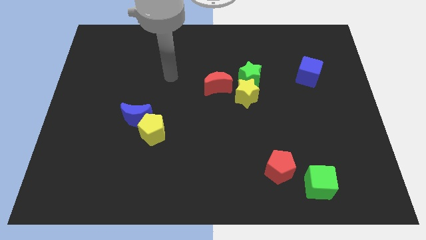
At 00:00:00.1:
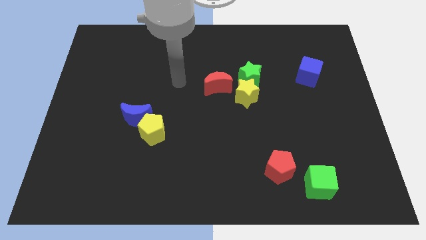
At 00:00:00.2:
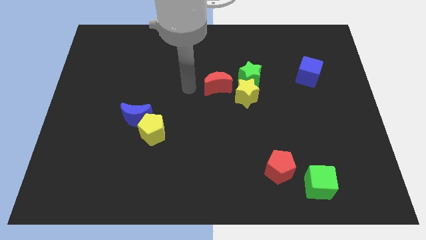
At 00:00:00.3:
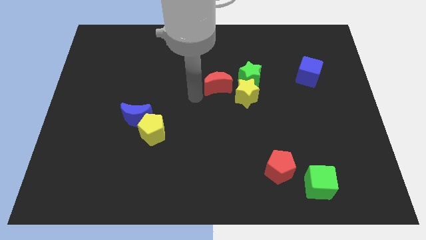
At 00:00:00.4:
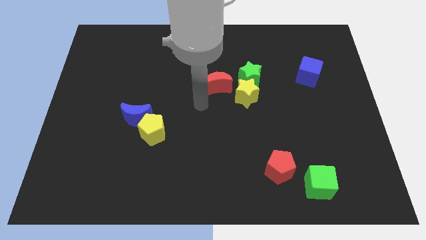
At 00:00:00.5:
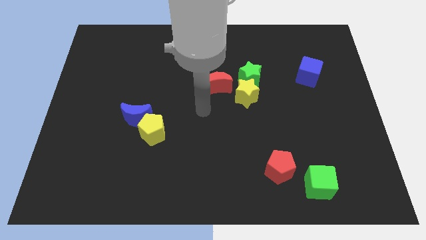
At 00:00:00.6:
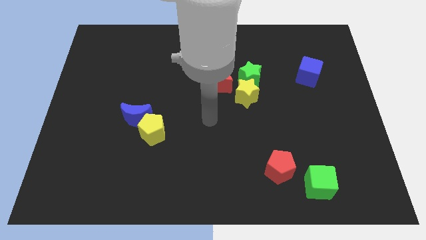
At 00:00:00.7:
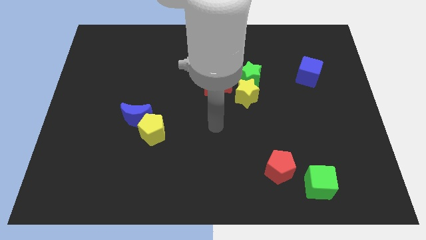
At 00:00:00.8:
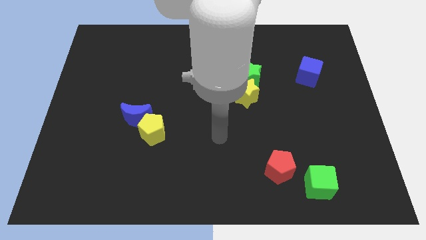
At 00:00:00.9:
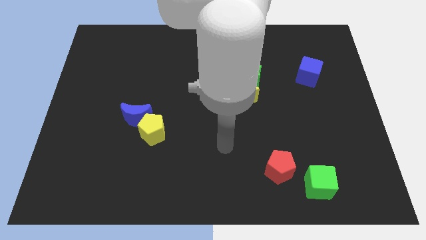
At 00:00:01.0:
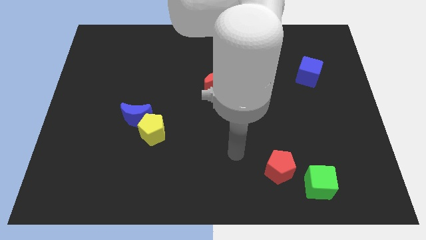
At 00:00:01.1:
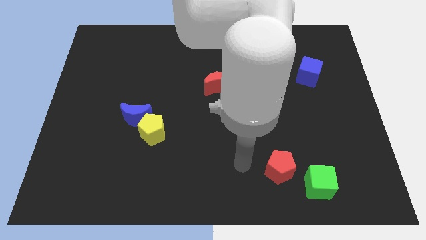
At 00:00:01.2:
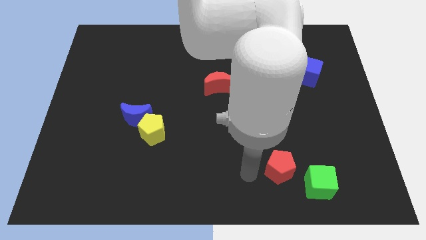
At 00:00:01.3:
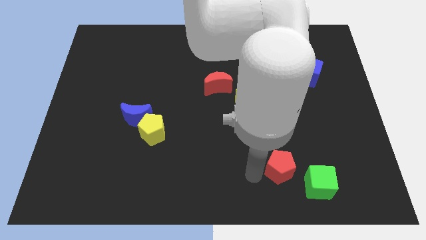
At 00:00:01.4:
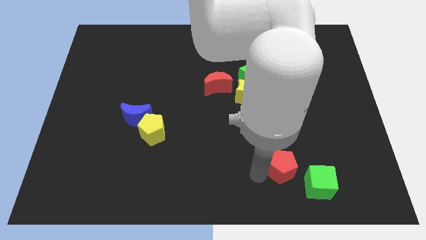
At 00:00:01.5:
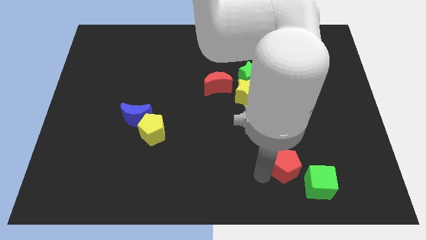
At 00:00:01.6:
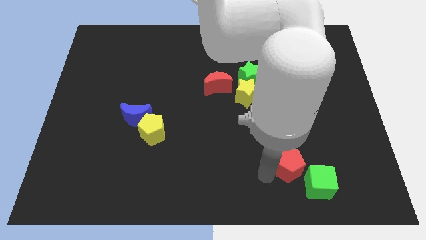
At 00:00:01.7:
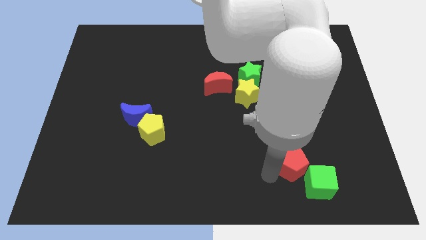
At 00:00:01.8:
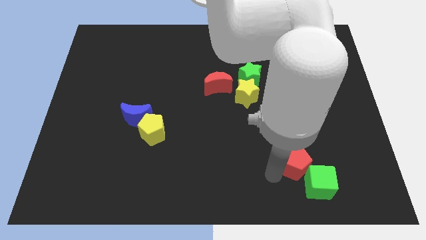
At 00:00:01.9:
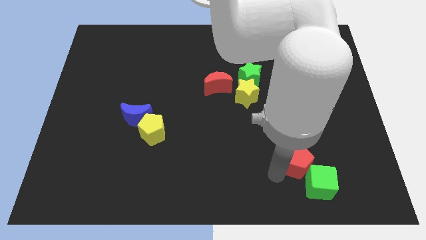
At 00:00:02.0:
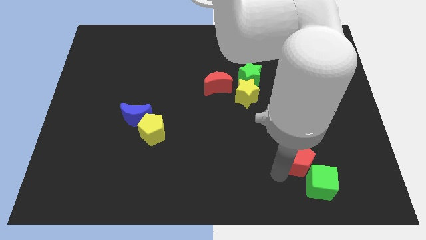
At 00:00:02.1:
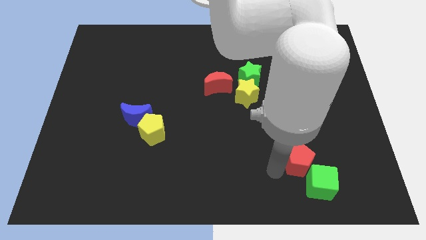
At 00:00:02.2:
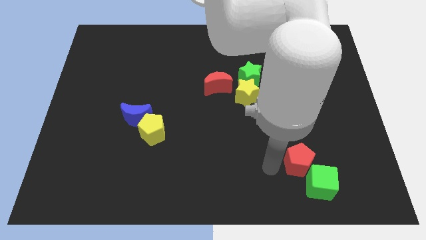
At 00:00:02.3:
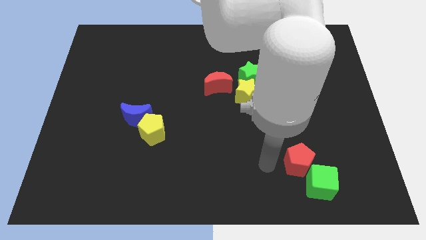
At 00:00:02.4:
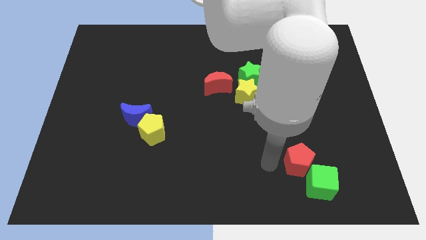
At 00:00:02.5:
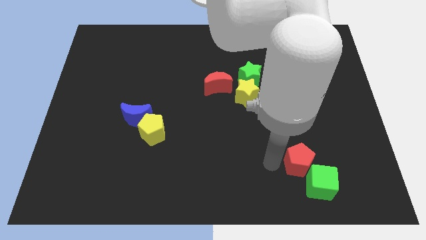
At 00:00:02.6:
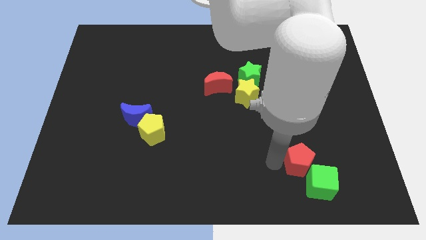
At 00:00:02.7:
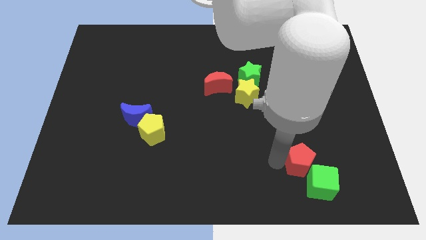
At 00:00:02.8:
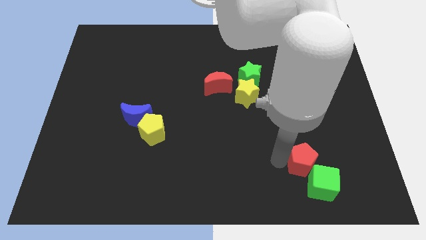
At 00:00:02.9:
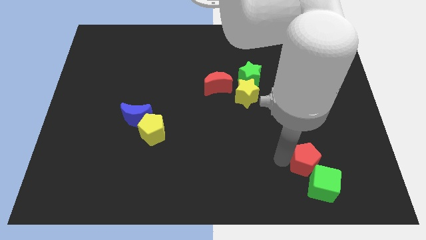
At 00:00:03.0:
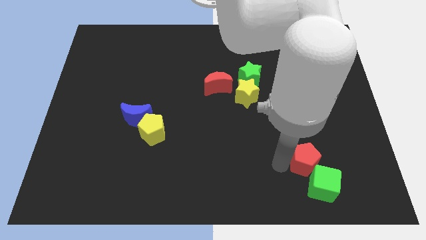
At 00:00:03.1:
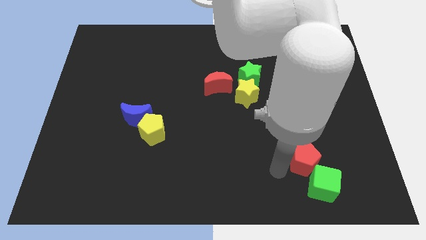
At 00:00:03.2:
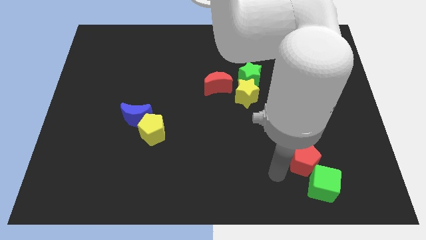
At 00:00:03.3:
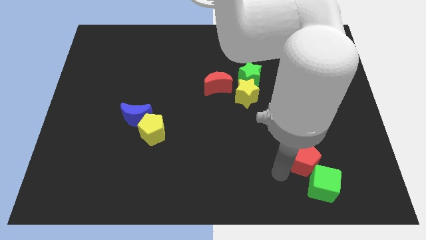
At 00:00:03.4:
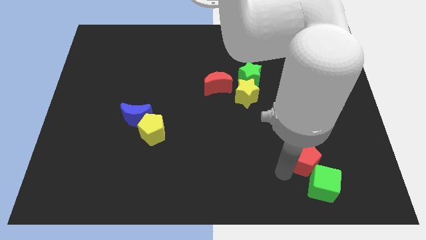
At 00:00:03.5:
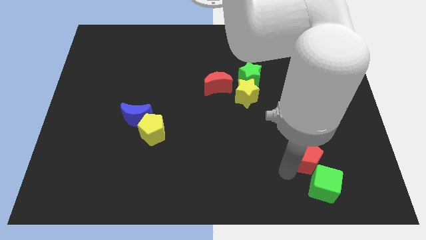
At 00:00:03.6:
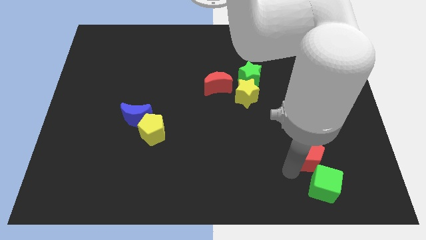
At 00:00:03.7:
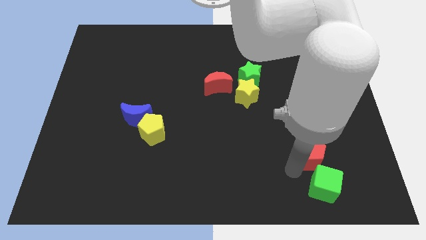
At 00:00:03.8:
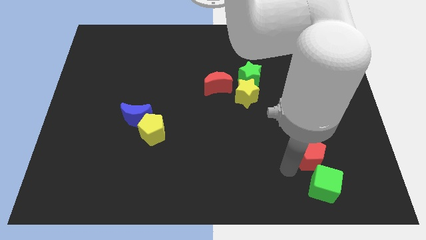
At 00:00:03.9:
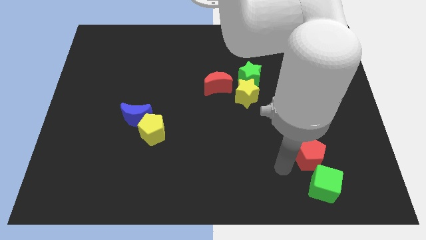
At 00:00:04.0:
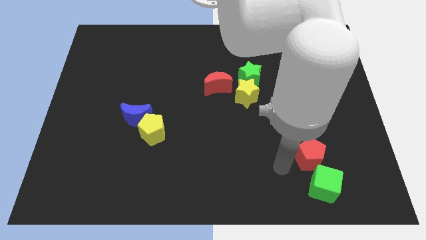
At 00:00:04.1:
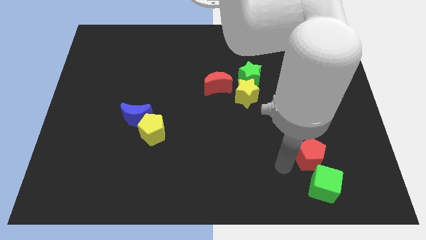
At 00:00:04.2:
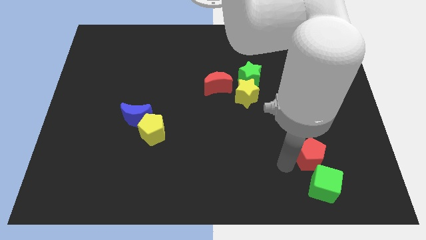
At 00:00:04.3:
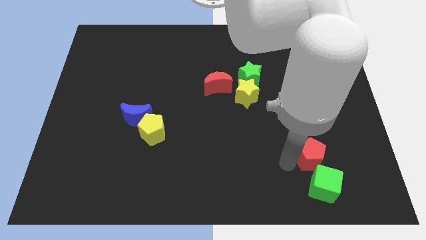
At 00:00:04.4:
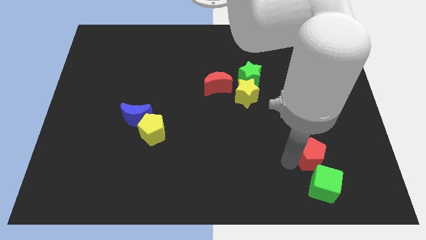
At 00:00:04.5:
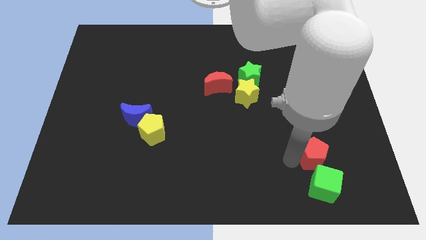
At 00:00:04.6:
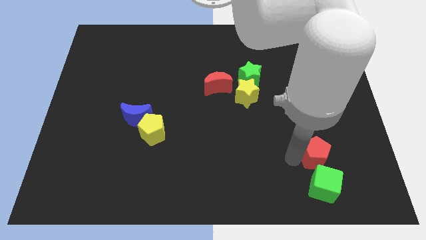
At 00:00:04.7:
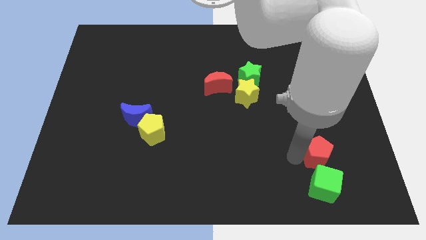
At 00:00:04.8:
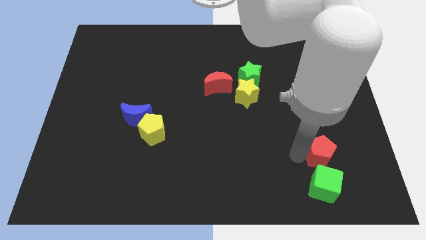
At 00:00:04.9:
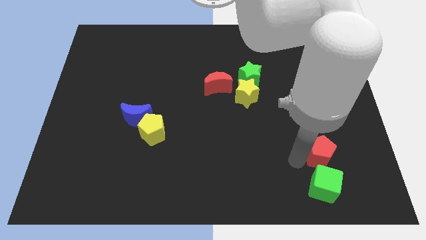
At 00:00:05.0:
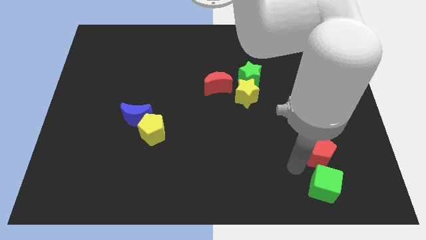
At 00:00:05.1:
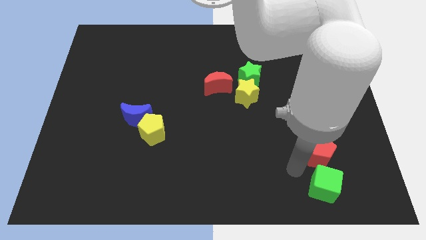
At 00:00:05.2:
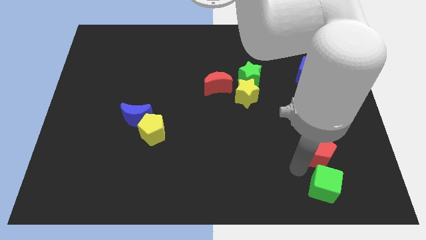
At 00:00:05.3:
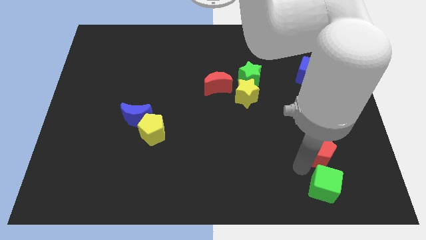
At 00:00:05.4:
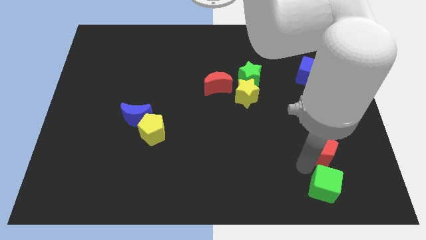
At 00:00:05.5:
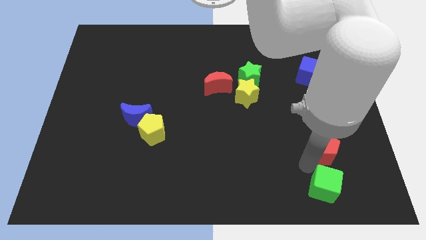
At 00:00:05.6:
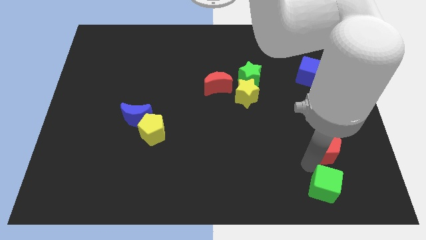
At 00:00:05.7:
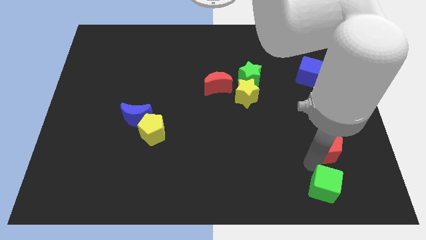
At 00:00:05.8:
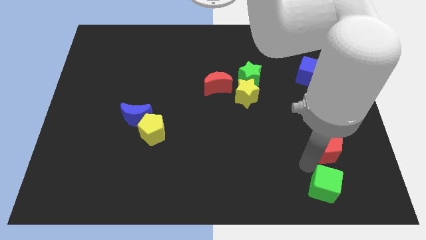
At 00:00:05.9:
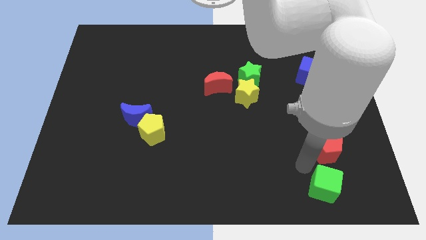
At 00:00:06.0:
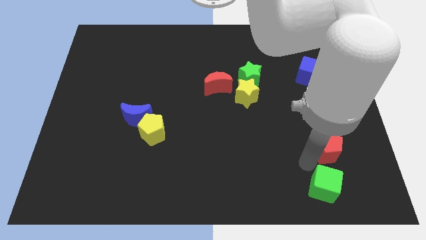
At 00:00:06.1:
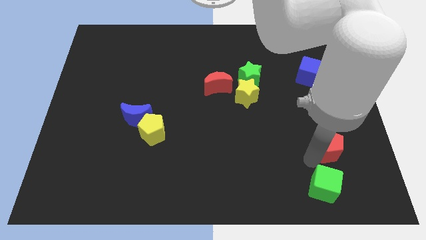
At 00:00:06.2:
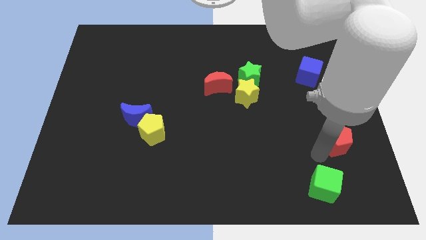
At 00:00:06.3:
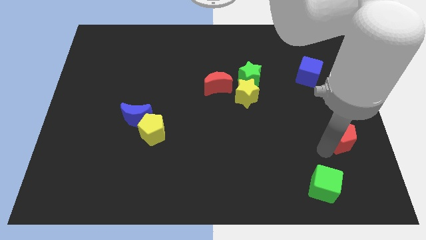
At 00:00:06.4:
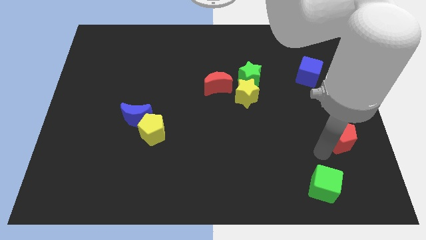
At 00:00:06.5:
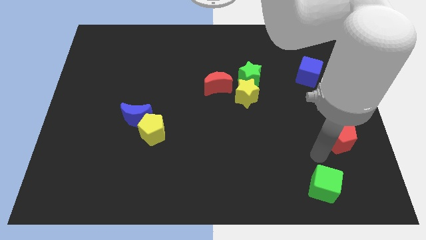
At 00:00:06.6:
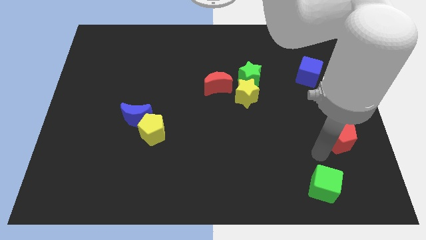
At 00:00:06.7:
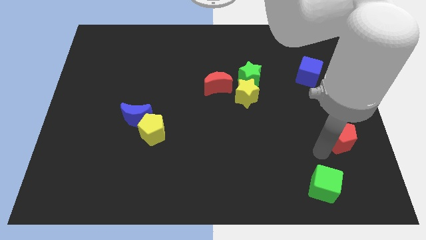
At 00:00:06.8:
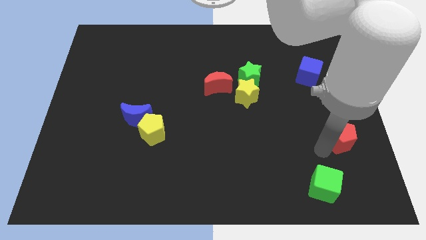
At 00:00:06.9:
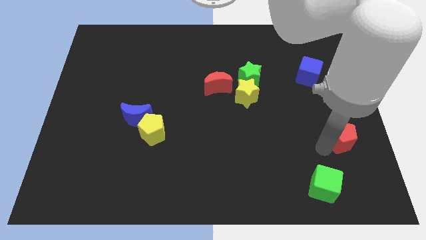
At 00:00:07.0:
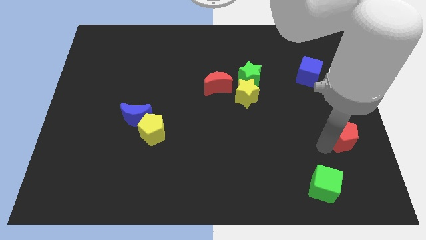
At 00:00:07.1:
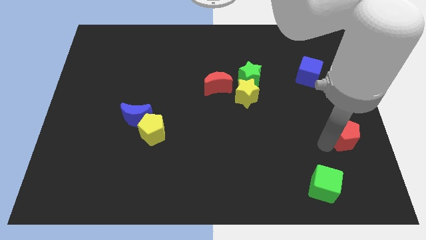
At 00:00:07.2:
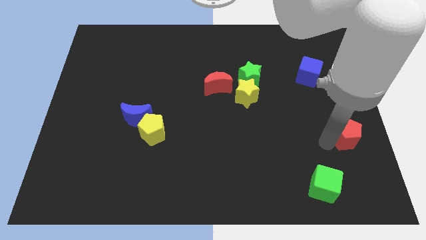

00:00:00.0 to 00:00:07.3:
slide the red pentagon to the right side
